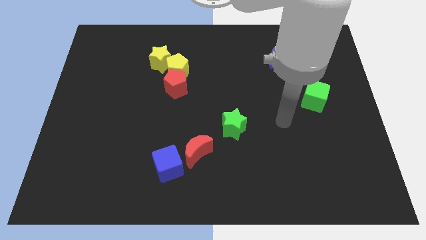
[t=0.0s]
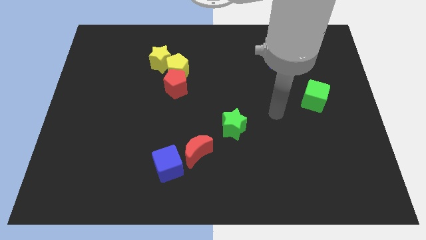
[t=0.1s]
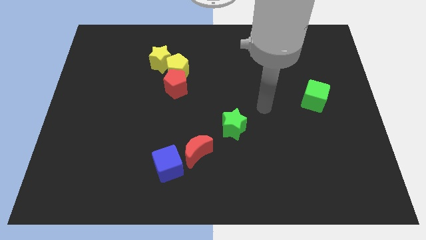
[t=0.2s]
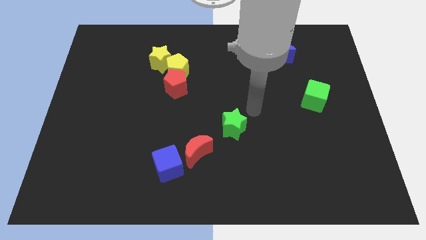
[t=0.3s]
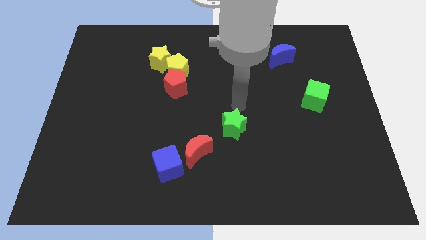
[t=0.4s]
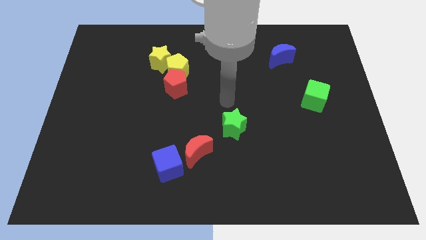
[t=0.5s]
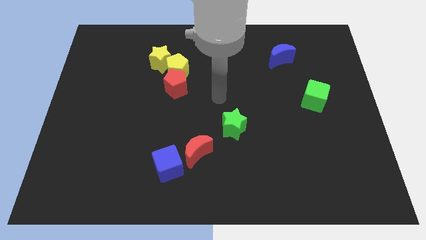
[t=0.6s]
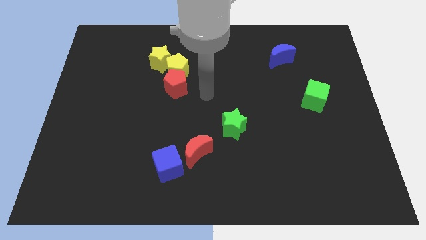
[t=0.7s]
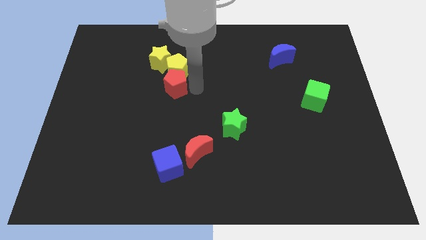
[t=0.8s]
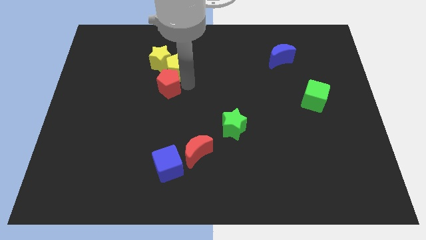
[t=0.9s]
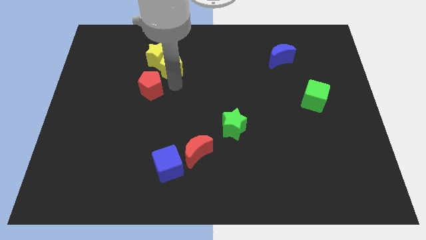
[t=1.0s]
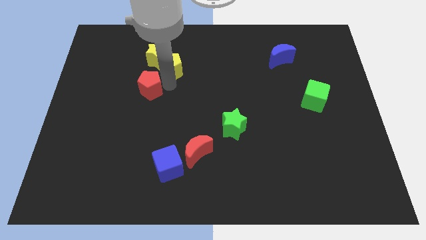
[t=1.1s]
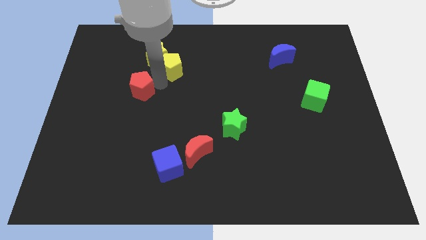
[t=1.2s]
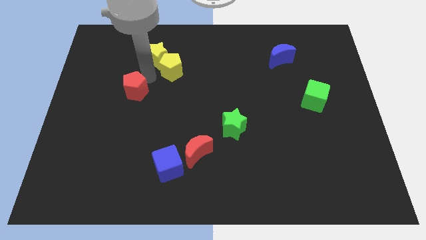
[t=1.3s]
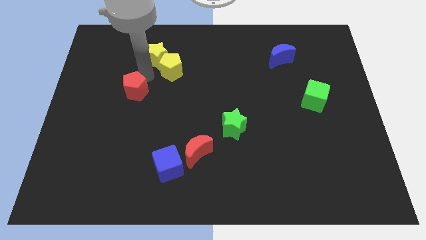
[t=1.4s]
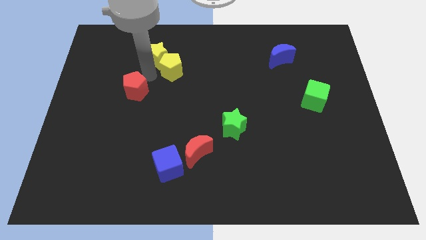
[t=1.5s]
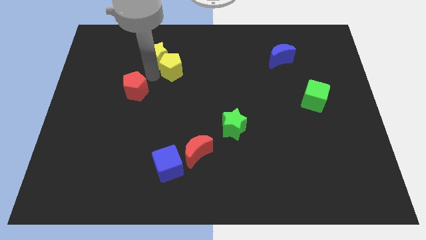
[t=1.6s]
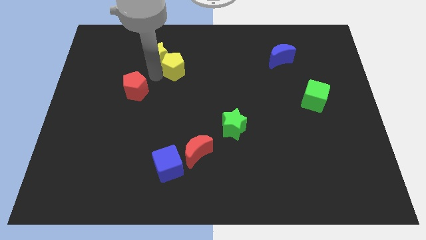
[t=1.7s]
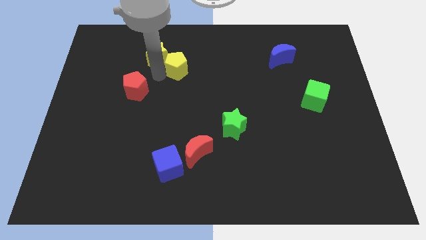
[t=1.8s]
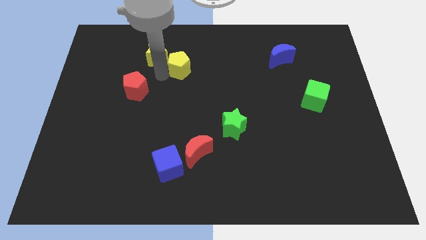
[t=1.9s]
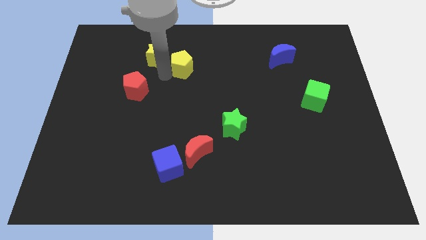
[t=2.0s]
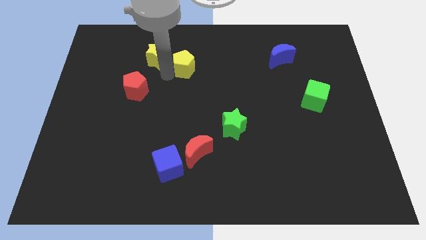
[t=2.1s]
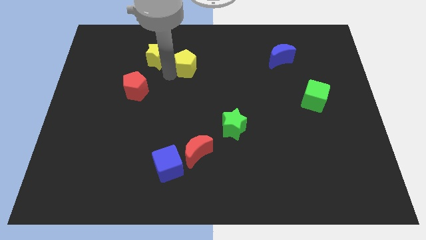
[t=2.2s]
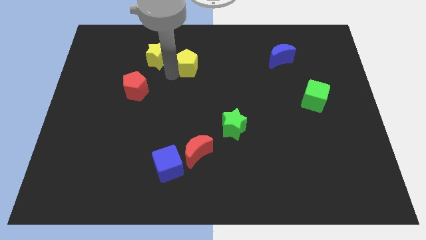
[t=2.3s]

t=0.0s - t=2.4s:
move the yellow pentagon away from the red pentagon and yellow star

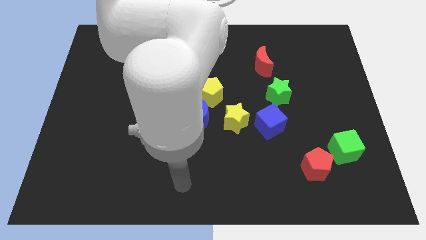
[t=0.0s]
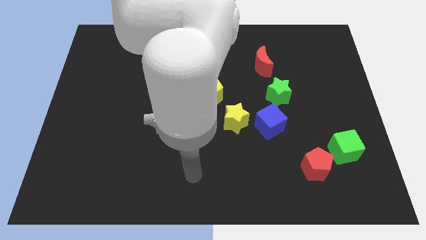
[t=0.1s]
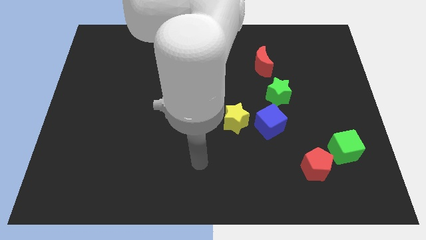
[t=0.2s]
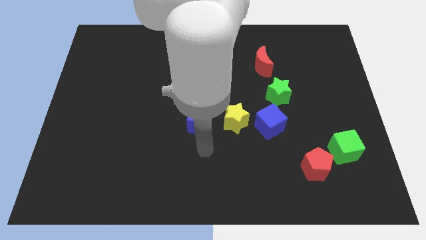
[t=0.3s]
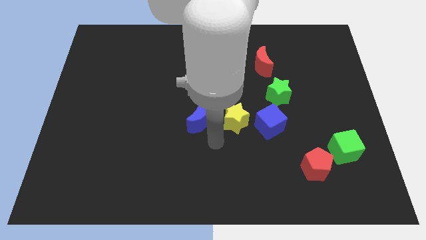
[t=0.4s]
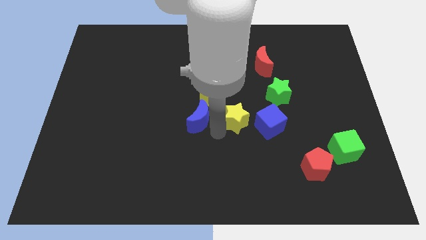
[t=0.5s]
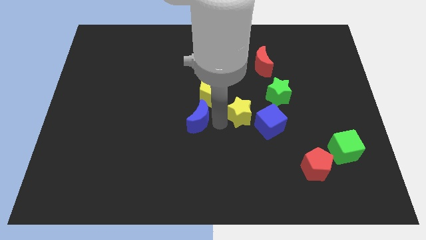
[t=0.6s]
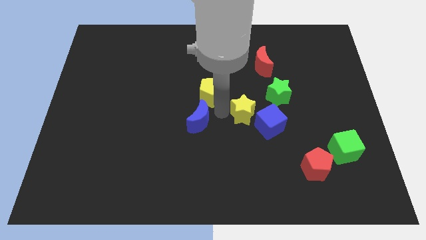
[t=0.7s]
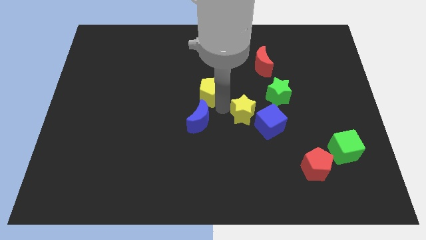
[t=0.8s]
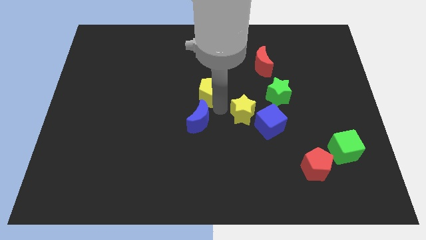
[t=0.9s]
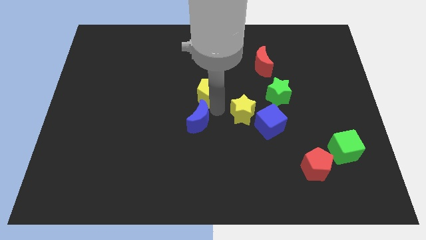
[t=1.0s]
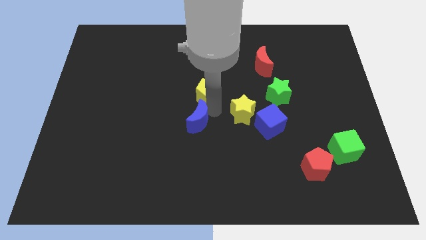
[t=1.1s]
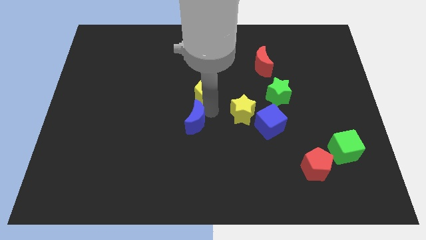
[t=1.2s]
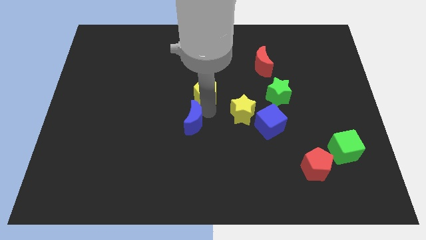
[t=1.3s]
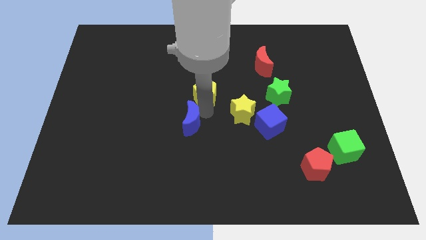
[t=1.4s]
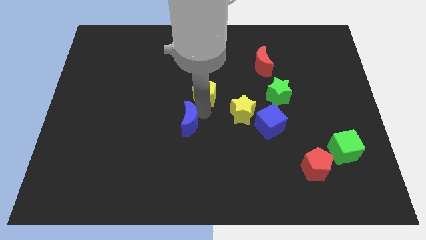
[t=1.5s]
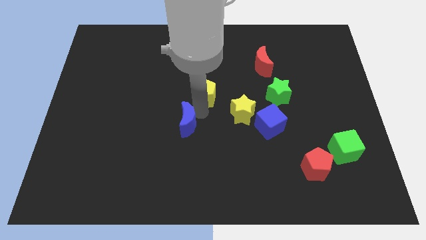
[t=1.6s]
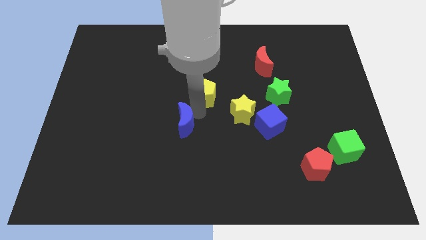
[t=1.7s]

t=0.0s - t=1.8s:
move the blue moon away from the yellow star and yellow pentagon

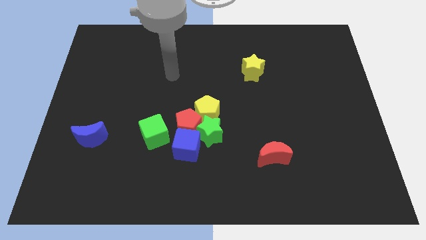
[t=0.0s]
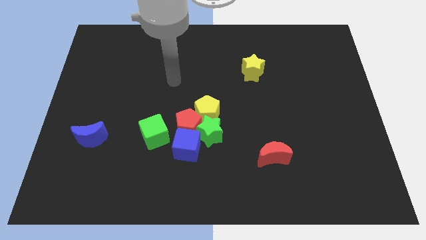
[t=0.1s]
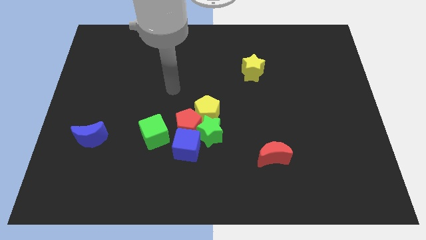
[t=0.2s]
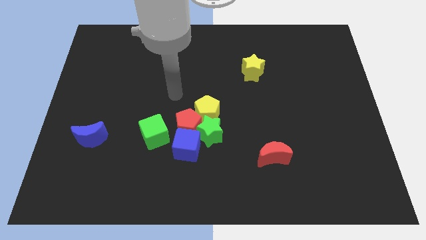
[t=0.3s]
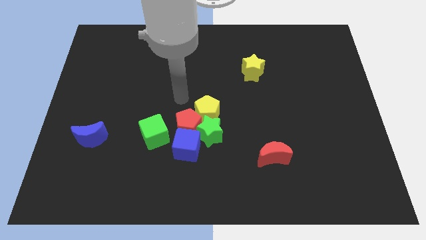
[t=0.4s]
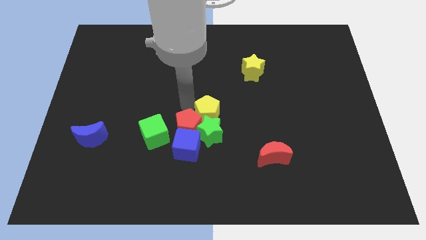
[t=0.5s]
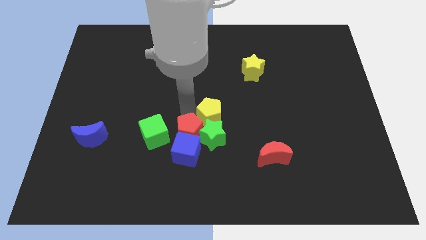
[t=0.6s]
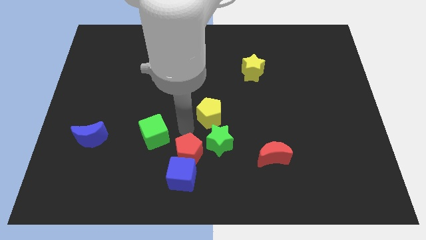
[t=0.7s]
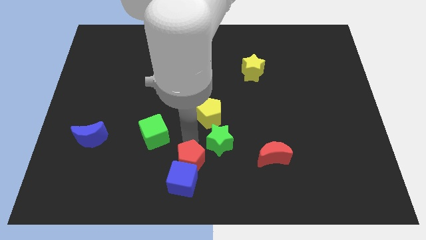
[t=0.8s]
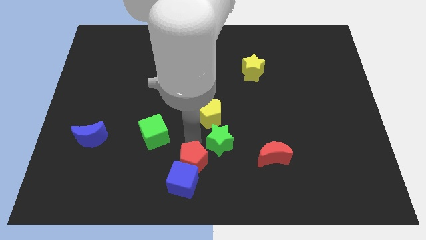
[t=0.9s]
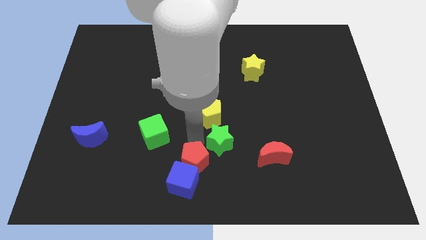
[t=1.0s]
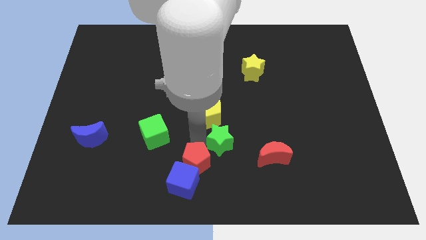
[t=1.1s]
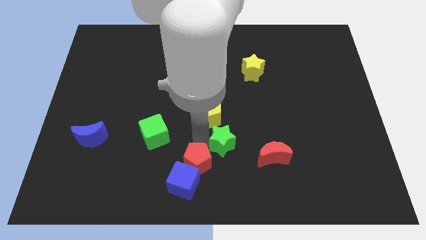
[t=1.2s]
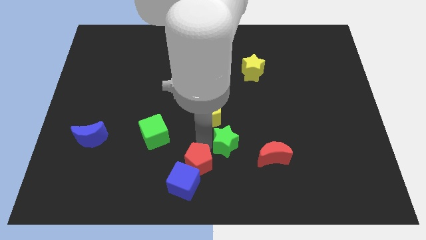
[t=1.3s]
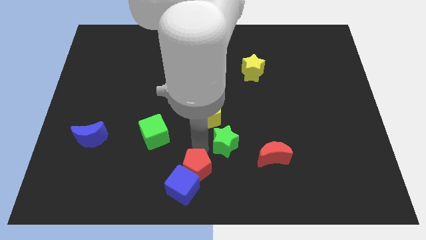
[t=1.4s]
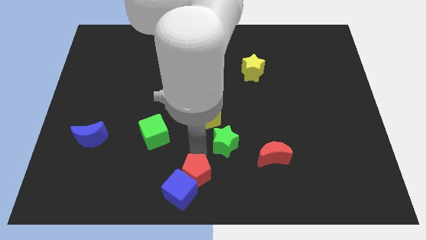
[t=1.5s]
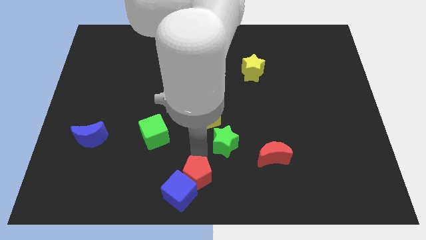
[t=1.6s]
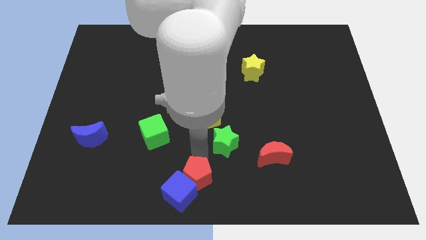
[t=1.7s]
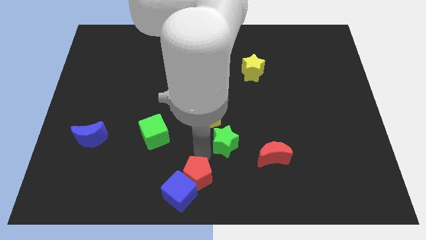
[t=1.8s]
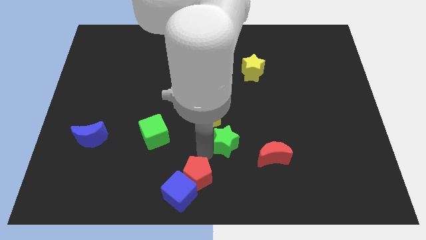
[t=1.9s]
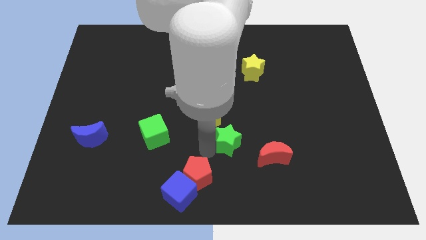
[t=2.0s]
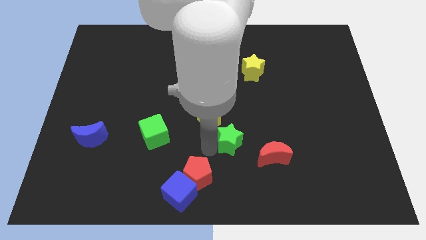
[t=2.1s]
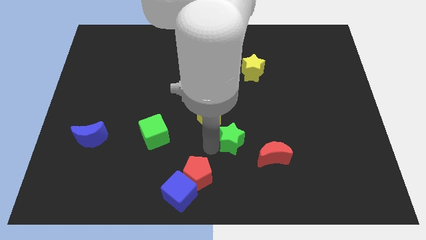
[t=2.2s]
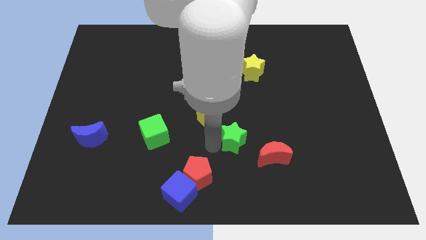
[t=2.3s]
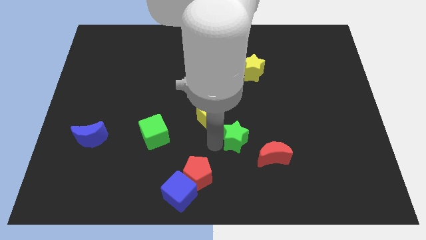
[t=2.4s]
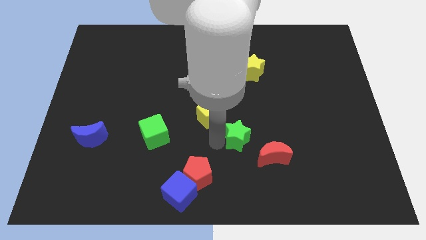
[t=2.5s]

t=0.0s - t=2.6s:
separate the green star from the red pentagon, yellow pentagon, and blue cube

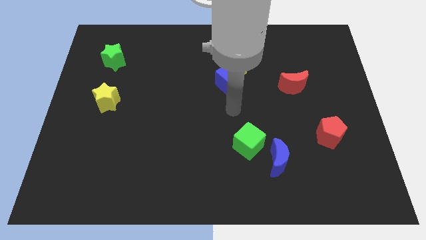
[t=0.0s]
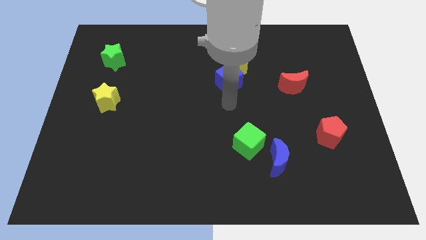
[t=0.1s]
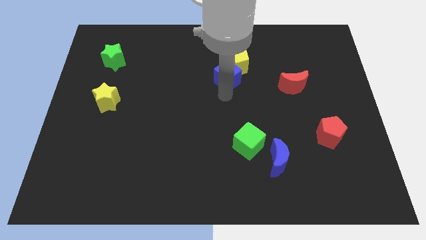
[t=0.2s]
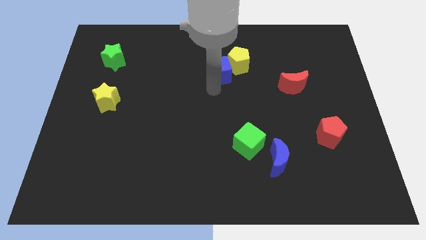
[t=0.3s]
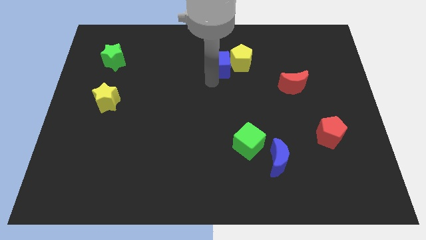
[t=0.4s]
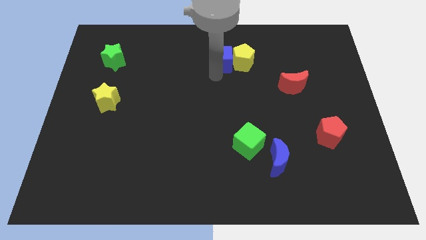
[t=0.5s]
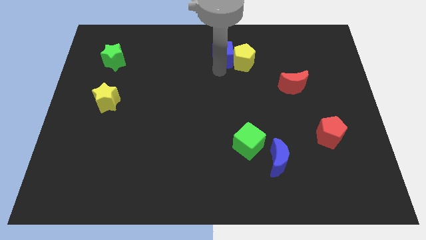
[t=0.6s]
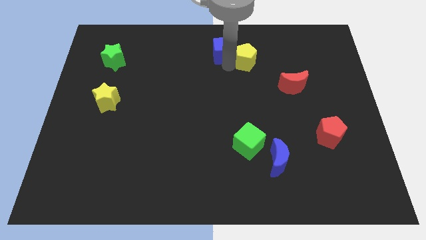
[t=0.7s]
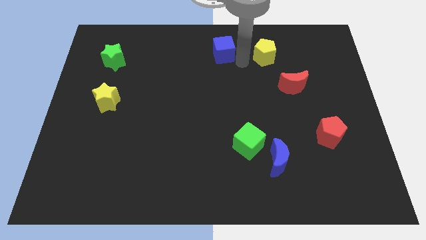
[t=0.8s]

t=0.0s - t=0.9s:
separate the blue cube from the yellow pentagon

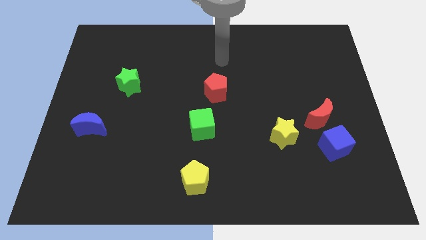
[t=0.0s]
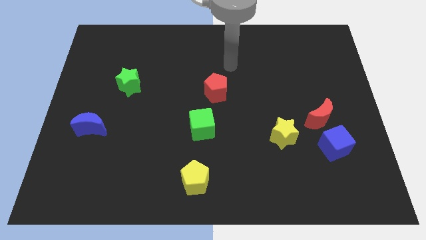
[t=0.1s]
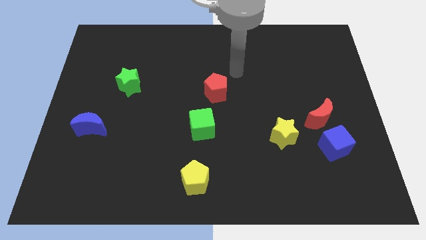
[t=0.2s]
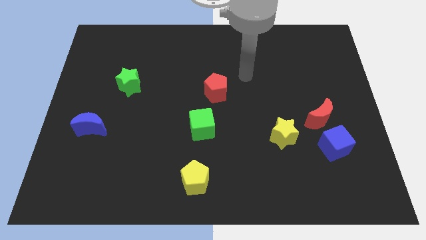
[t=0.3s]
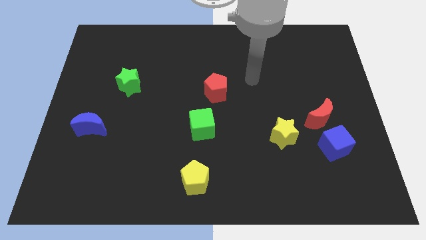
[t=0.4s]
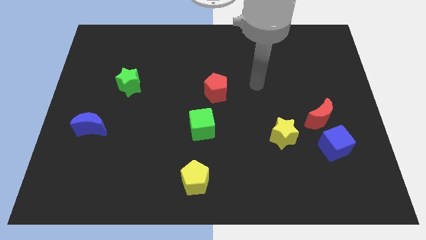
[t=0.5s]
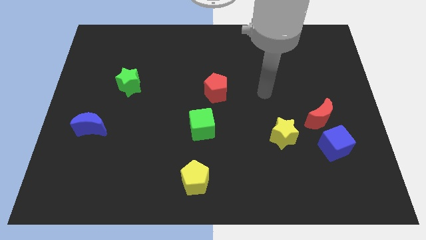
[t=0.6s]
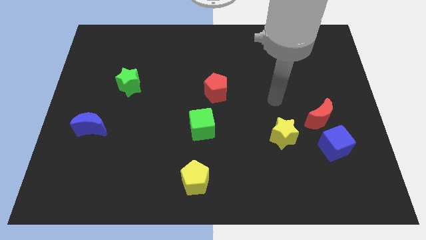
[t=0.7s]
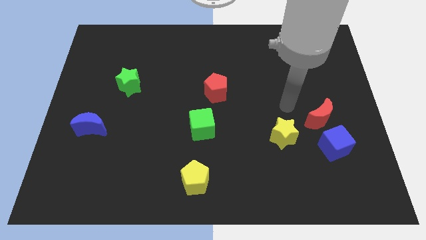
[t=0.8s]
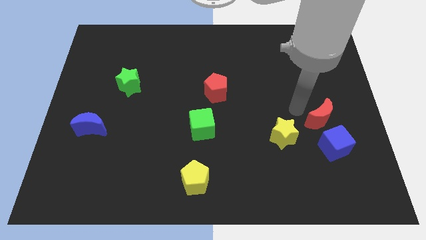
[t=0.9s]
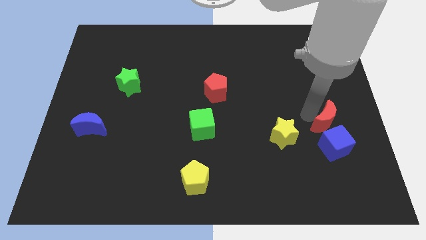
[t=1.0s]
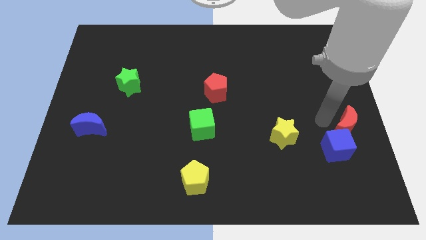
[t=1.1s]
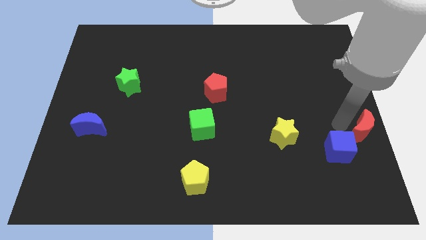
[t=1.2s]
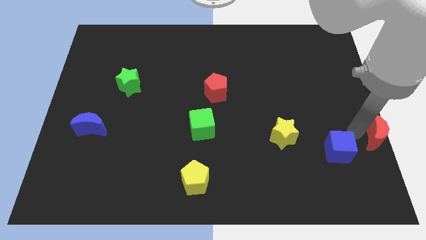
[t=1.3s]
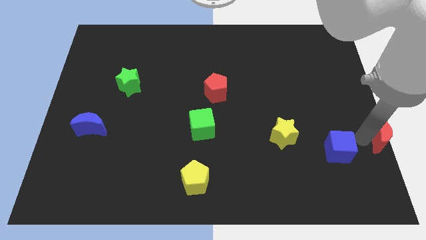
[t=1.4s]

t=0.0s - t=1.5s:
move the blue cube away from the red moon

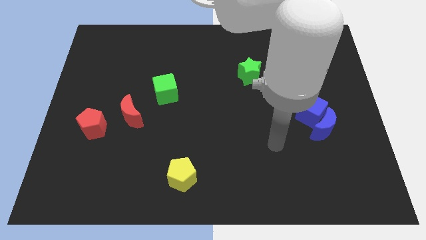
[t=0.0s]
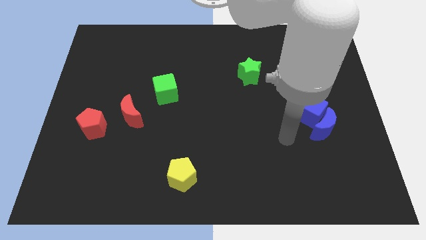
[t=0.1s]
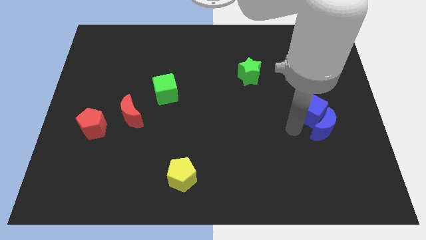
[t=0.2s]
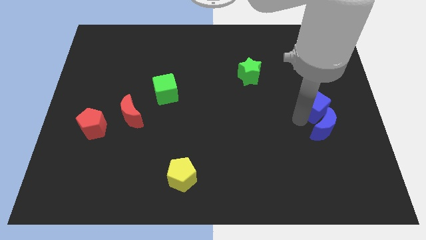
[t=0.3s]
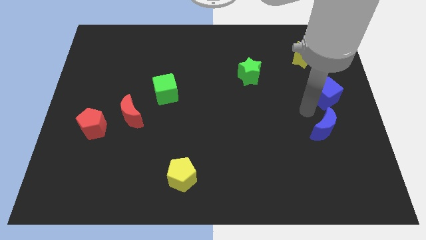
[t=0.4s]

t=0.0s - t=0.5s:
move the blue moon away from the blue cube
